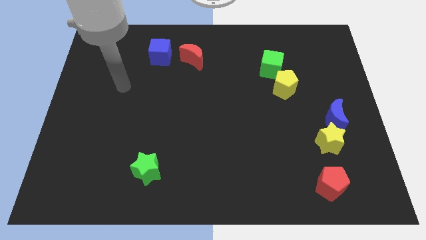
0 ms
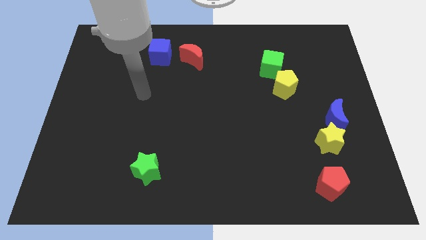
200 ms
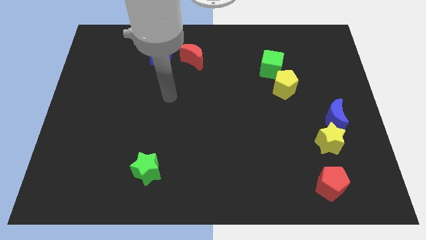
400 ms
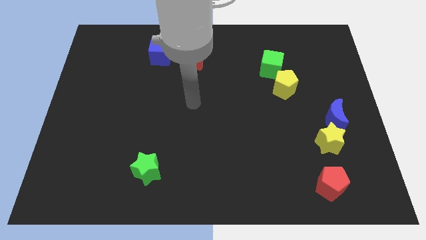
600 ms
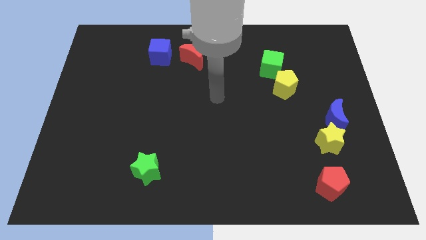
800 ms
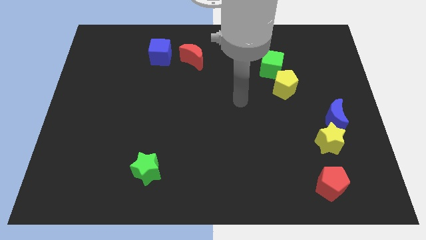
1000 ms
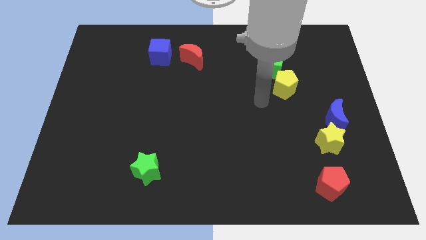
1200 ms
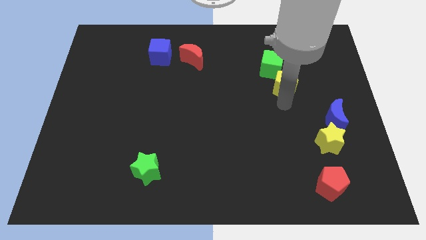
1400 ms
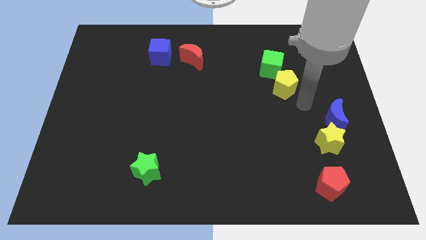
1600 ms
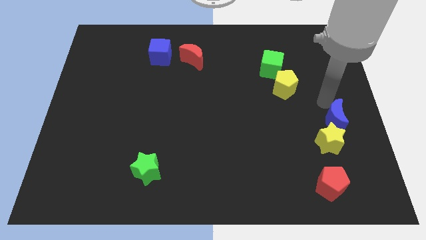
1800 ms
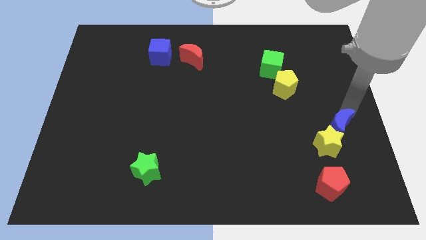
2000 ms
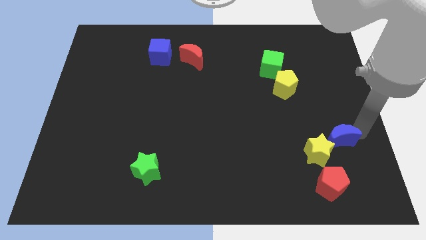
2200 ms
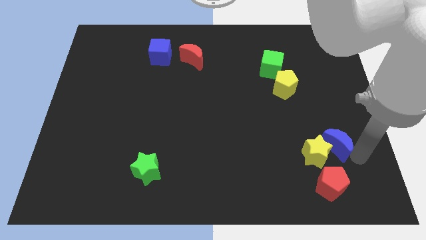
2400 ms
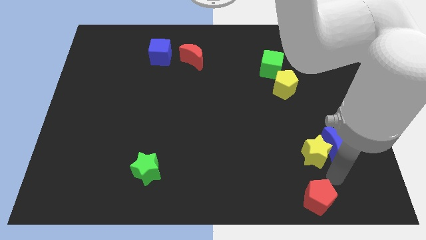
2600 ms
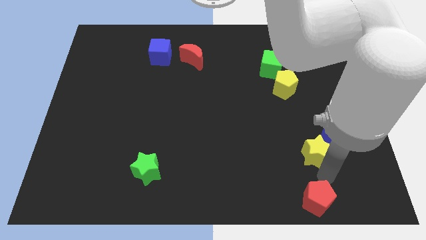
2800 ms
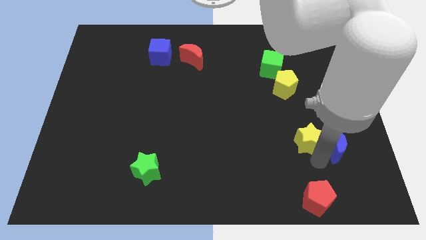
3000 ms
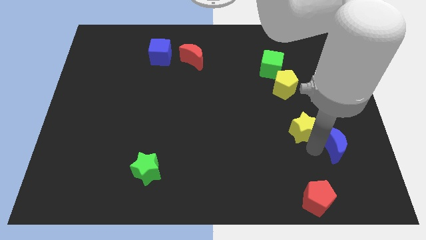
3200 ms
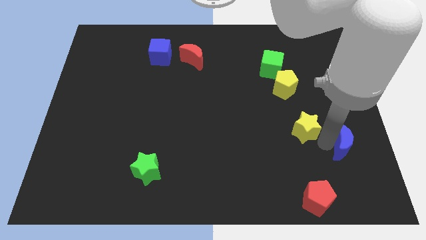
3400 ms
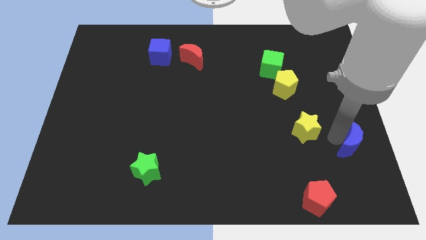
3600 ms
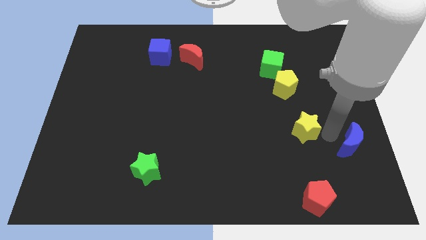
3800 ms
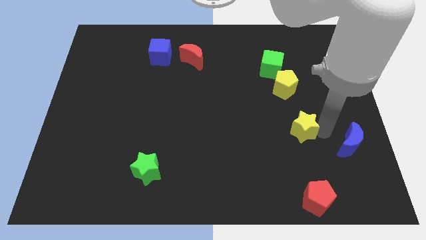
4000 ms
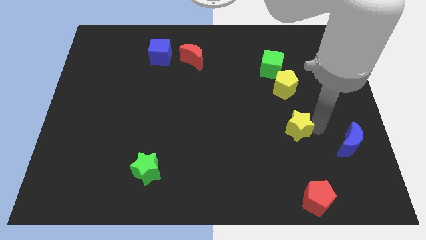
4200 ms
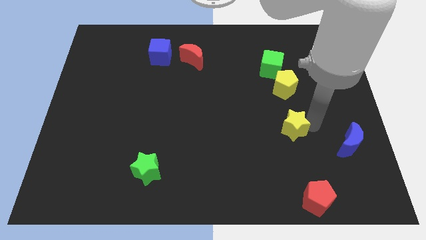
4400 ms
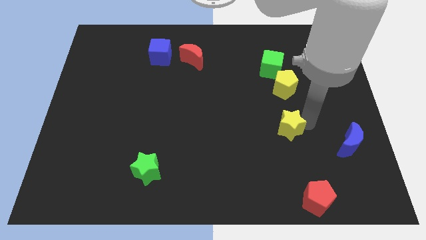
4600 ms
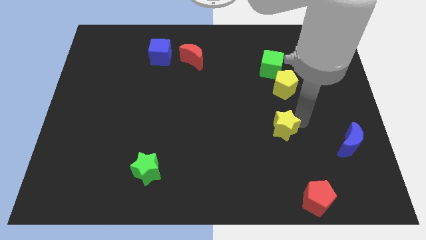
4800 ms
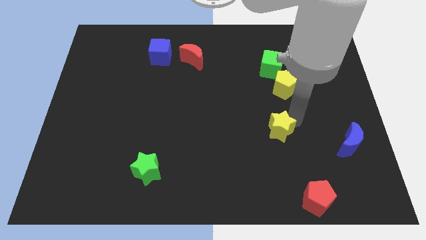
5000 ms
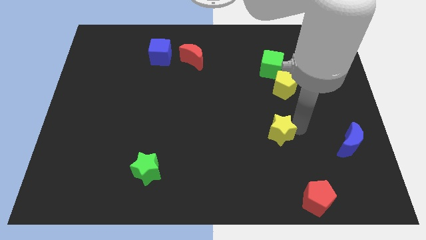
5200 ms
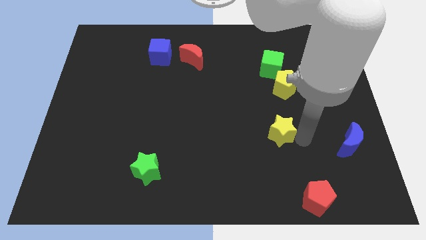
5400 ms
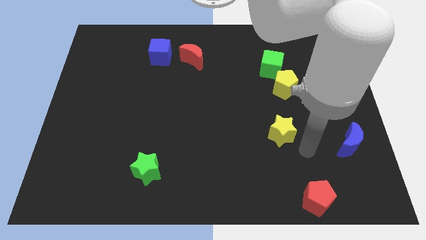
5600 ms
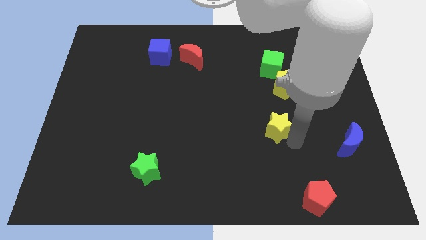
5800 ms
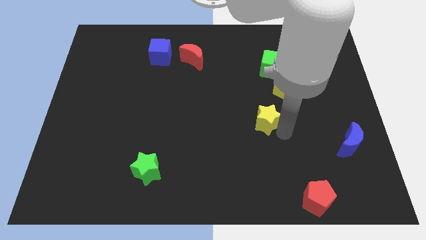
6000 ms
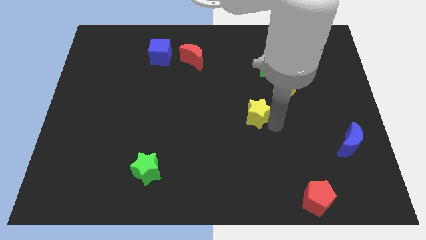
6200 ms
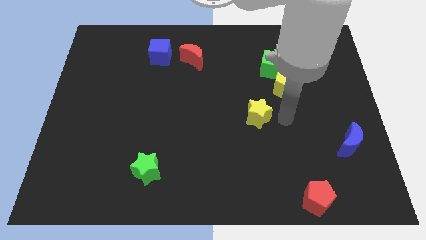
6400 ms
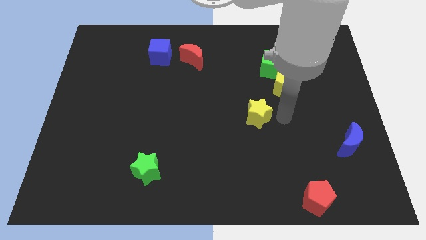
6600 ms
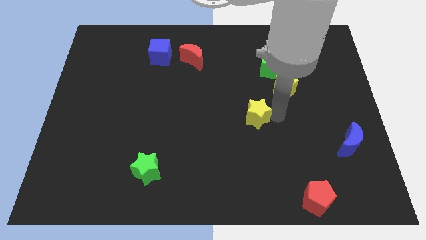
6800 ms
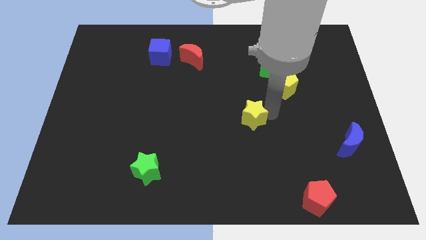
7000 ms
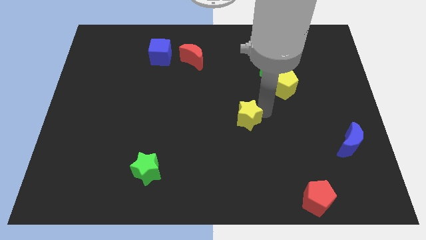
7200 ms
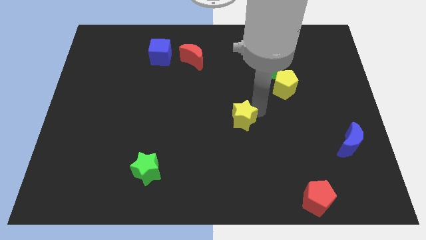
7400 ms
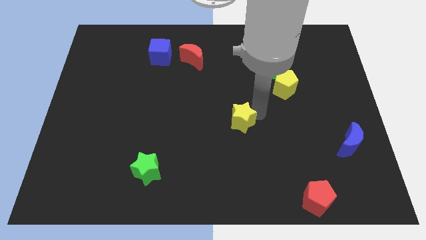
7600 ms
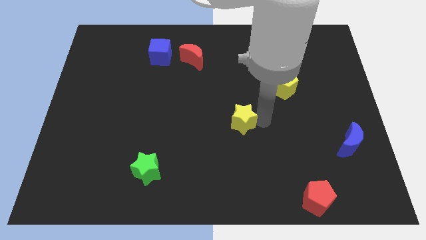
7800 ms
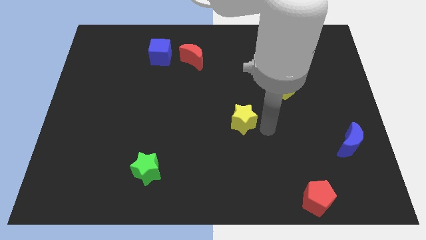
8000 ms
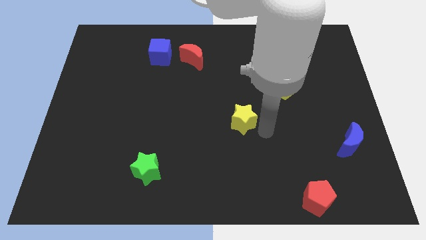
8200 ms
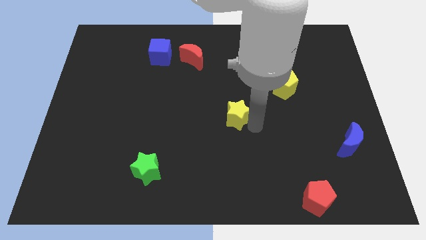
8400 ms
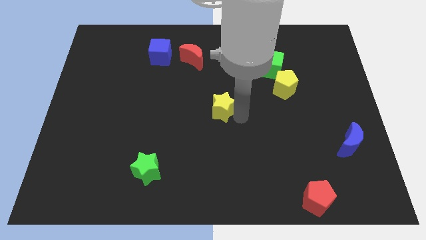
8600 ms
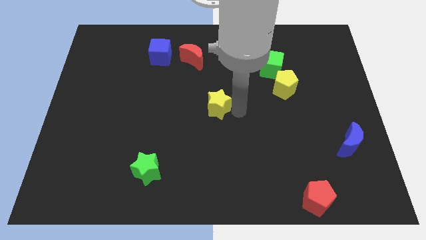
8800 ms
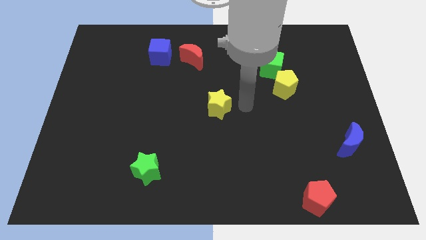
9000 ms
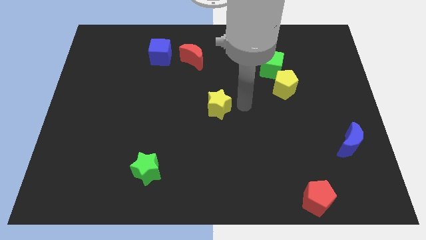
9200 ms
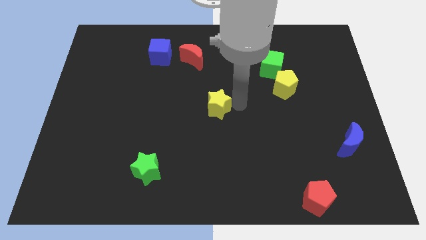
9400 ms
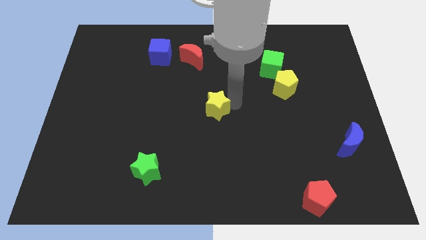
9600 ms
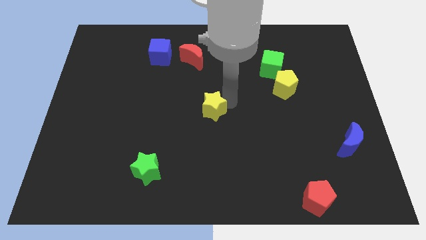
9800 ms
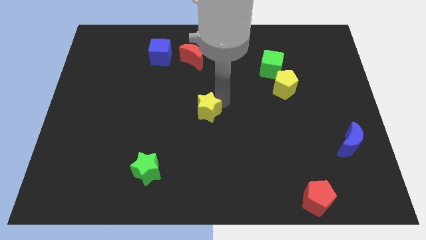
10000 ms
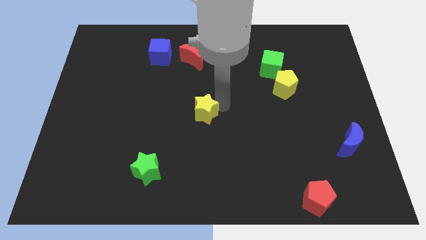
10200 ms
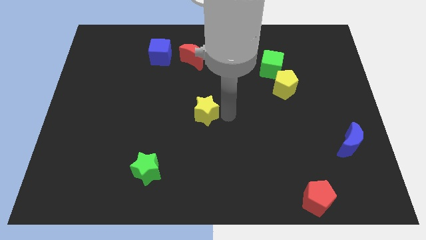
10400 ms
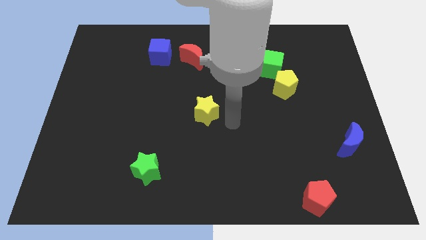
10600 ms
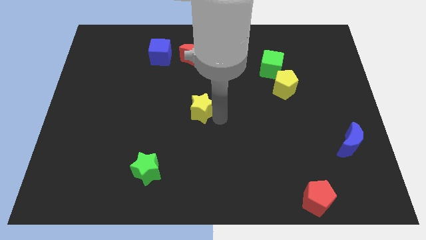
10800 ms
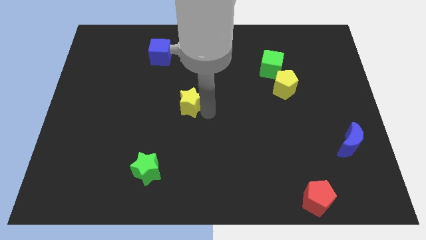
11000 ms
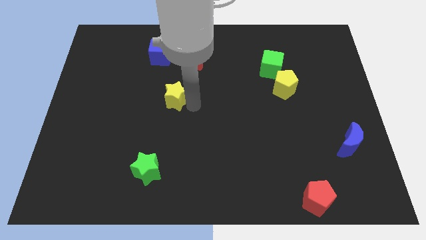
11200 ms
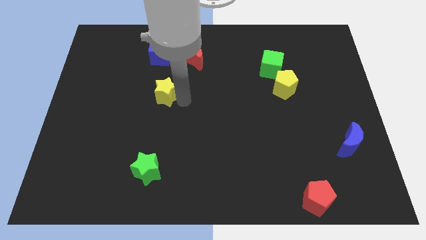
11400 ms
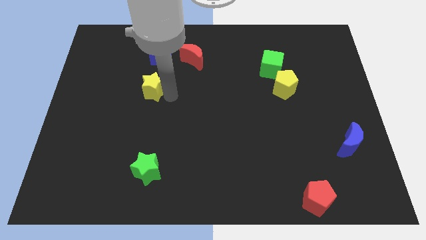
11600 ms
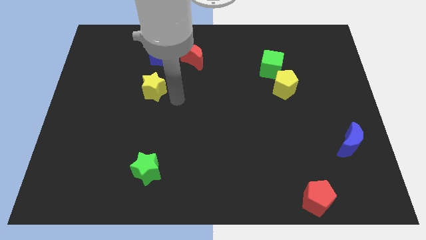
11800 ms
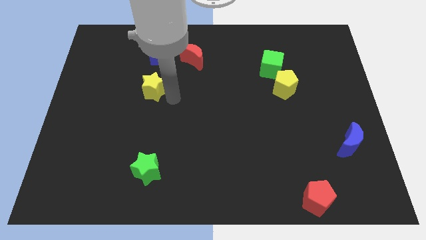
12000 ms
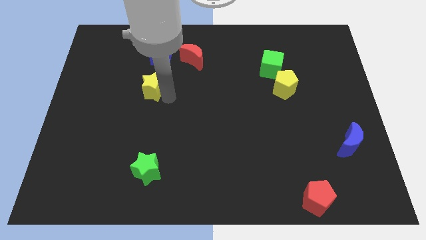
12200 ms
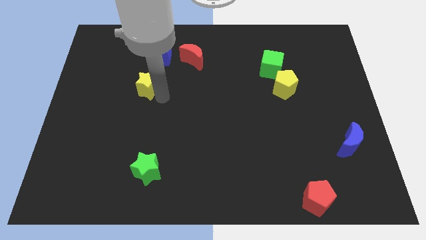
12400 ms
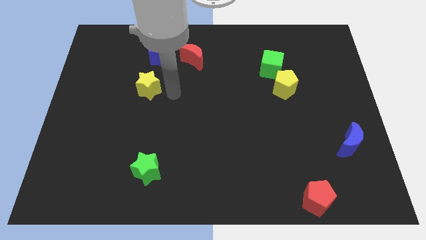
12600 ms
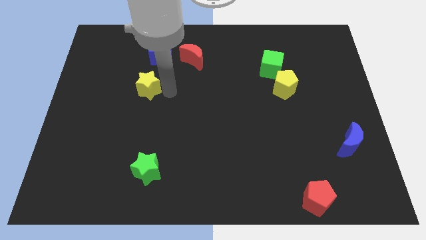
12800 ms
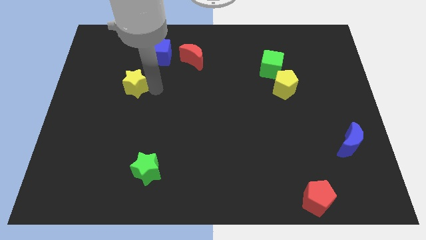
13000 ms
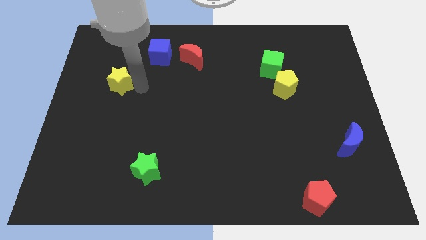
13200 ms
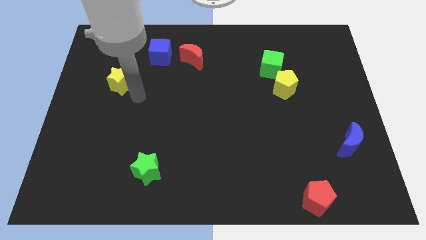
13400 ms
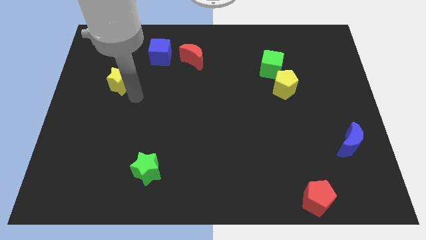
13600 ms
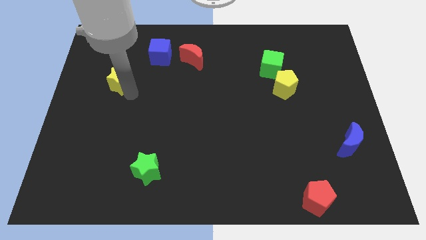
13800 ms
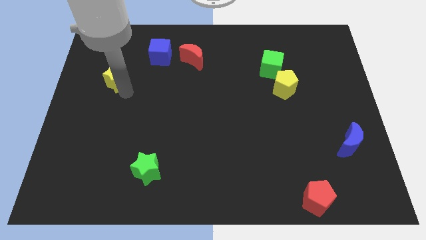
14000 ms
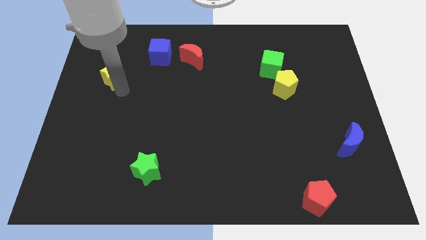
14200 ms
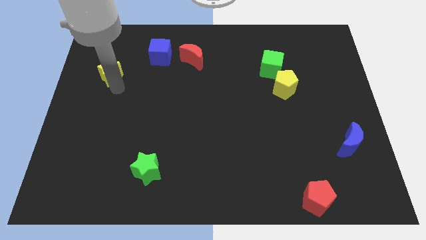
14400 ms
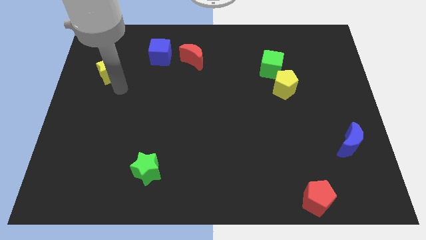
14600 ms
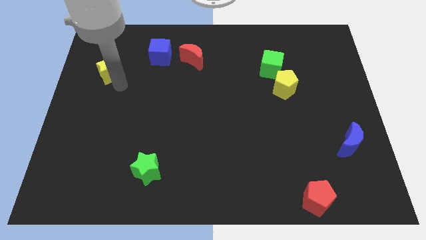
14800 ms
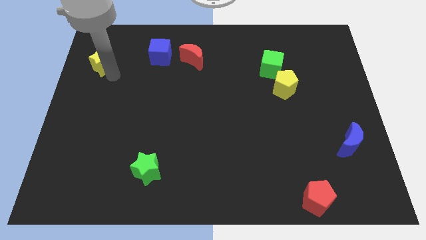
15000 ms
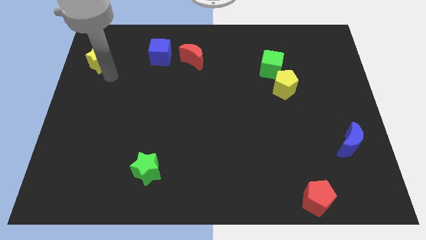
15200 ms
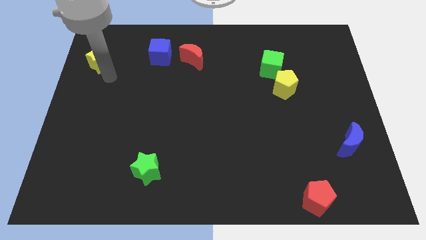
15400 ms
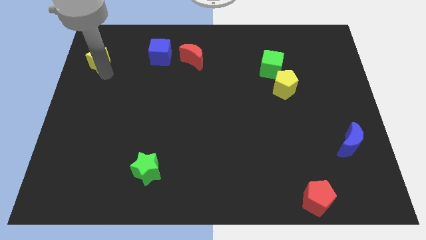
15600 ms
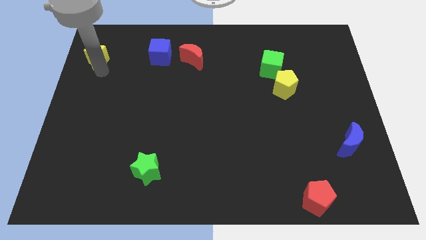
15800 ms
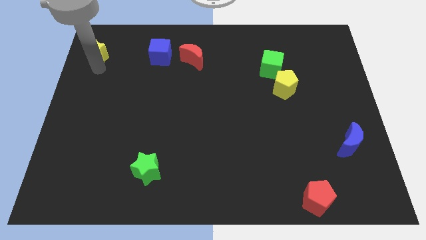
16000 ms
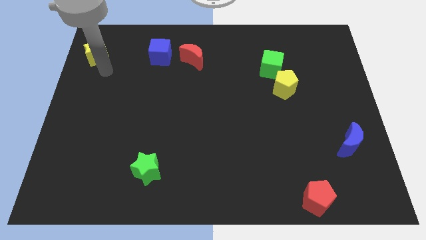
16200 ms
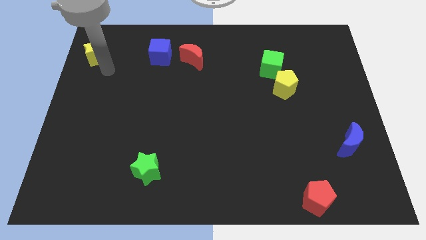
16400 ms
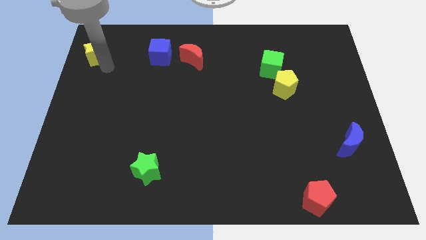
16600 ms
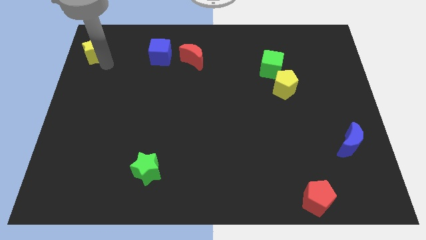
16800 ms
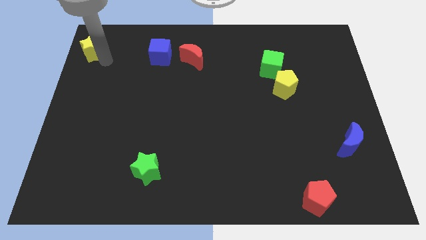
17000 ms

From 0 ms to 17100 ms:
slide the yellow star to the top left of the board
